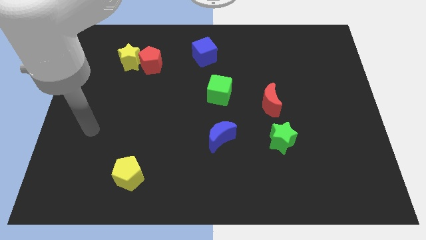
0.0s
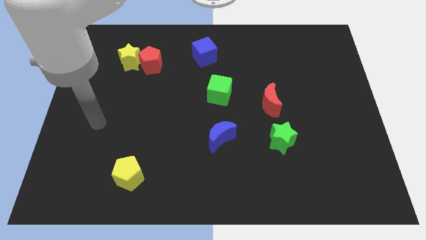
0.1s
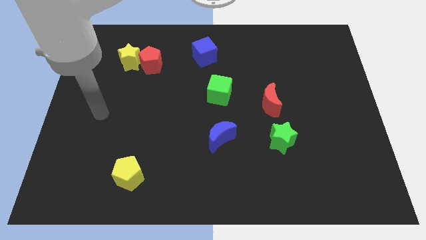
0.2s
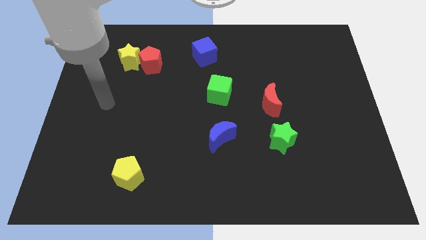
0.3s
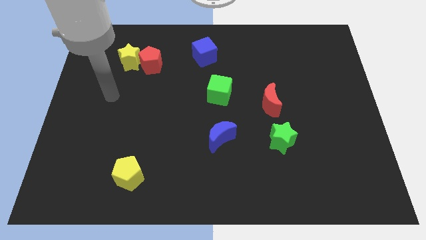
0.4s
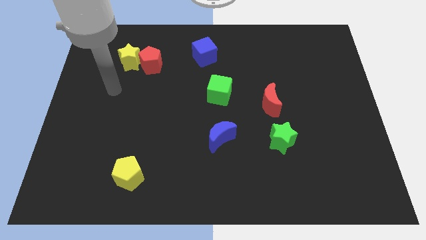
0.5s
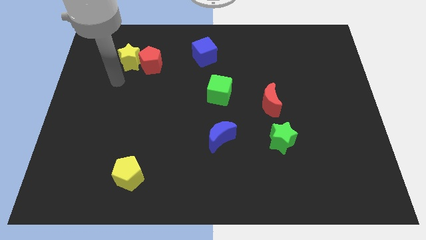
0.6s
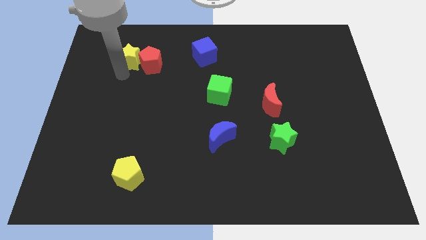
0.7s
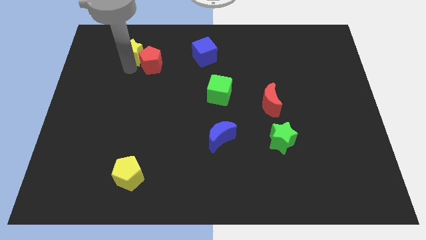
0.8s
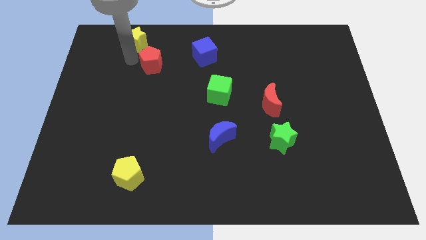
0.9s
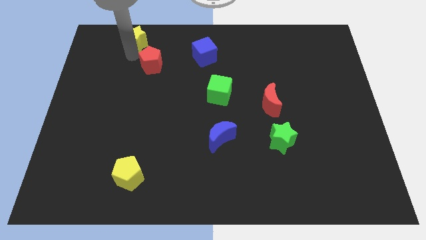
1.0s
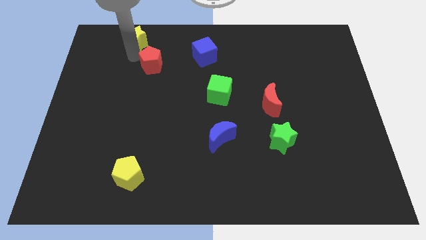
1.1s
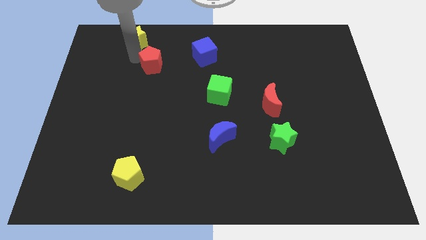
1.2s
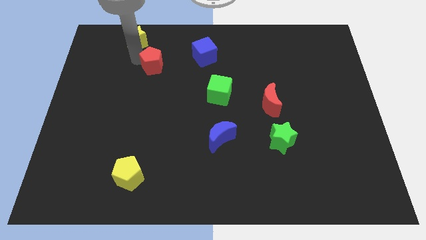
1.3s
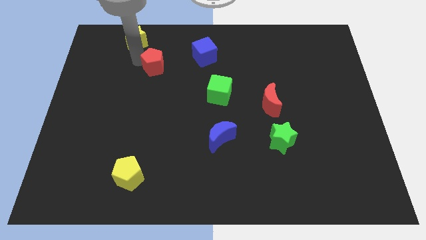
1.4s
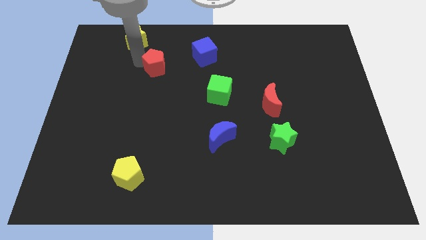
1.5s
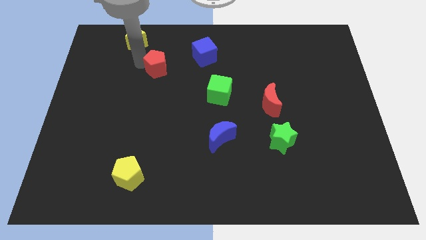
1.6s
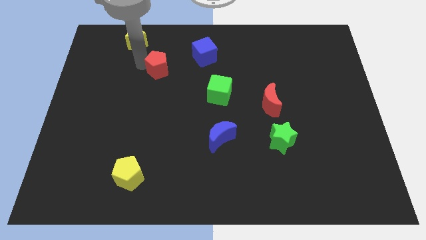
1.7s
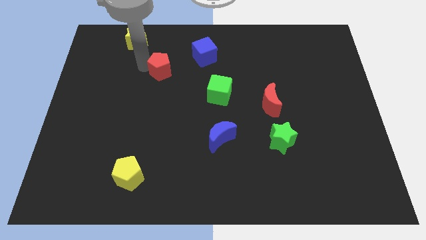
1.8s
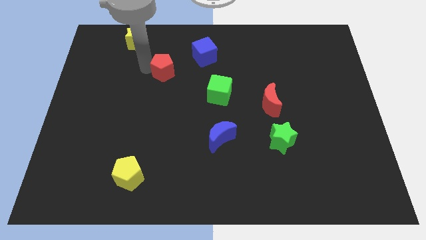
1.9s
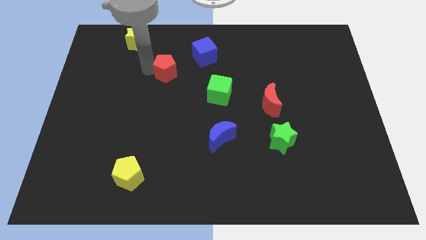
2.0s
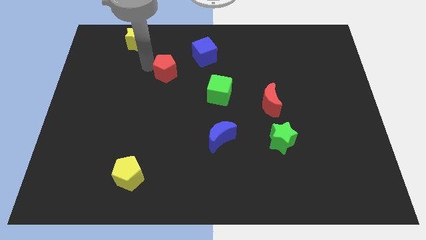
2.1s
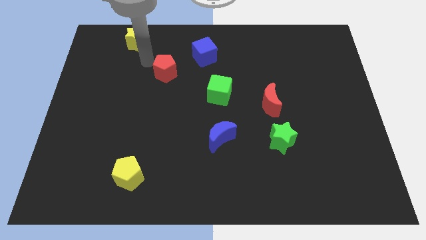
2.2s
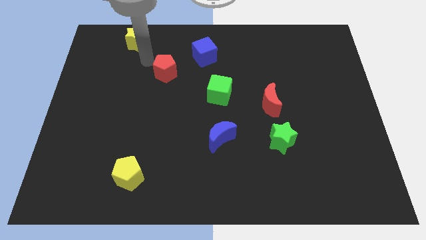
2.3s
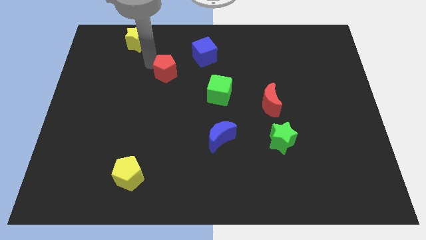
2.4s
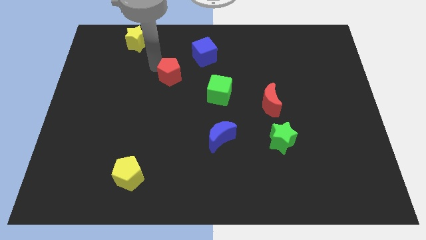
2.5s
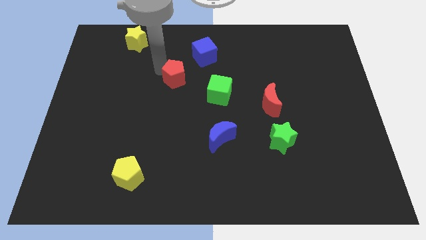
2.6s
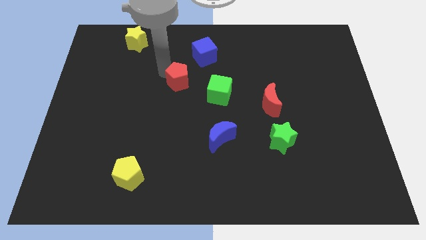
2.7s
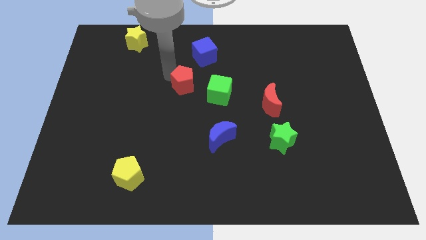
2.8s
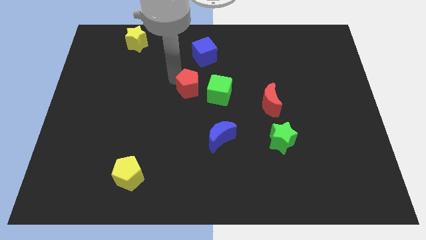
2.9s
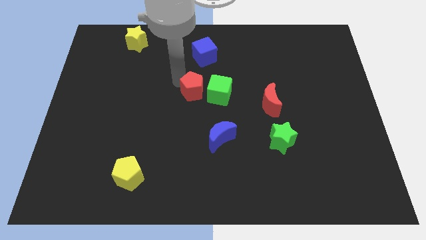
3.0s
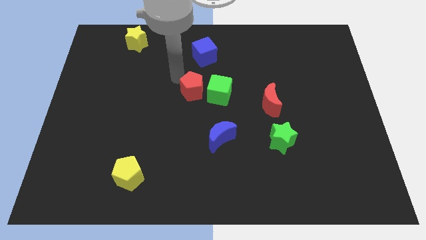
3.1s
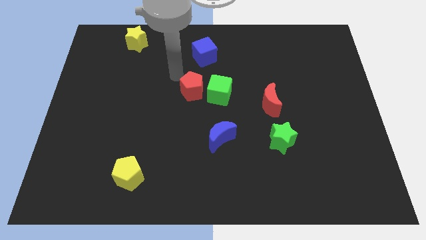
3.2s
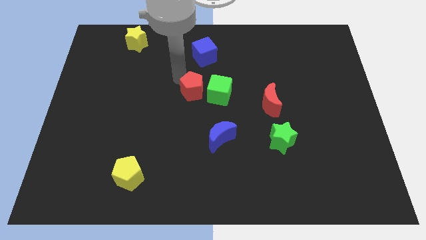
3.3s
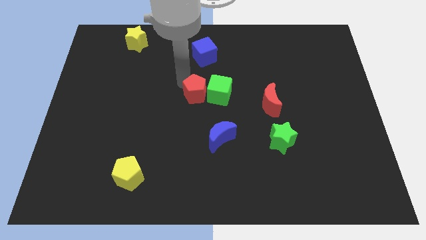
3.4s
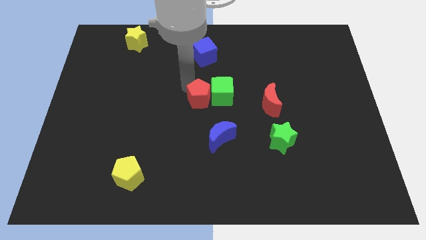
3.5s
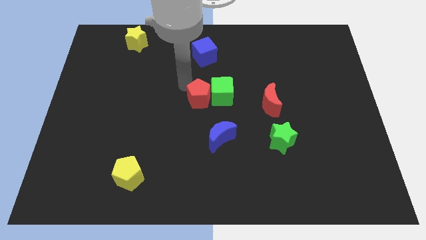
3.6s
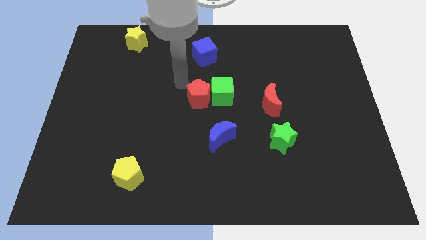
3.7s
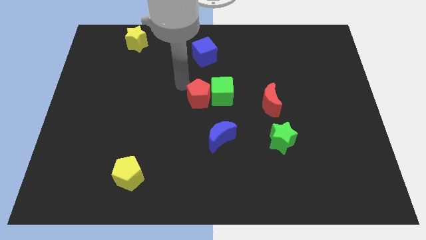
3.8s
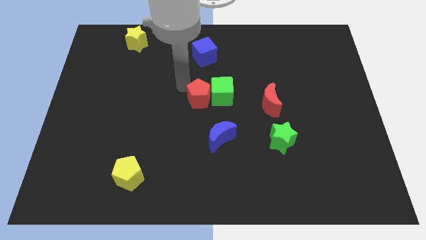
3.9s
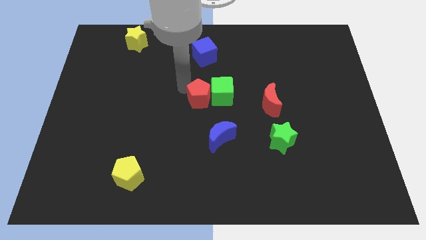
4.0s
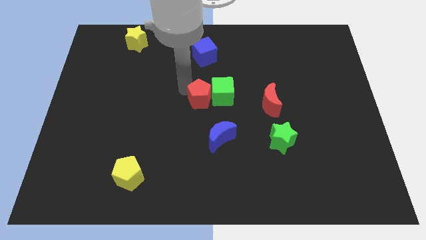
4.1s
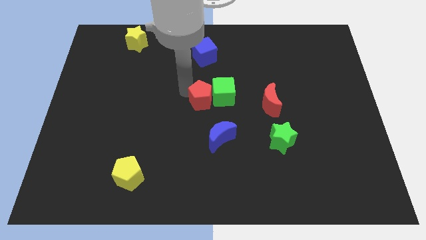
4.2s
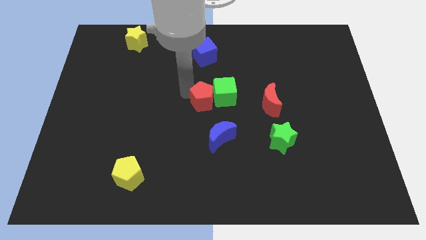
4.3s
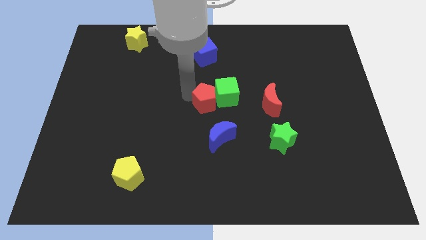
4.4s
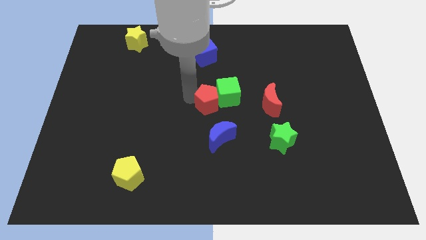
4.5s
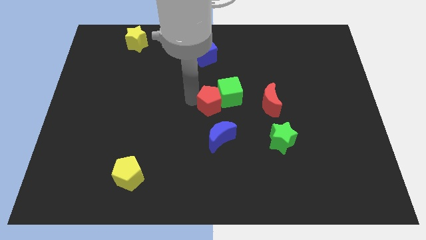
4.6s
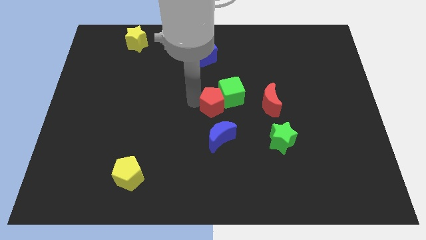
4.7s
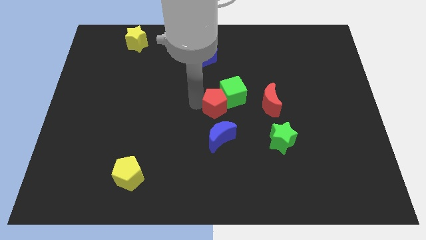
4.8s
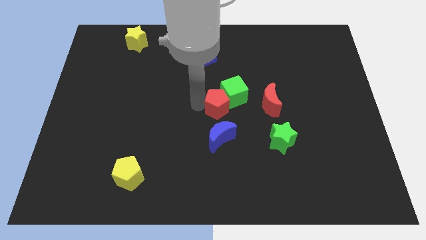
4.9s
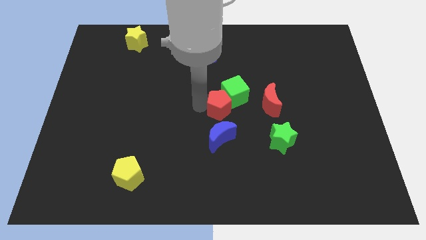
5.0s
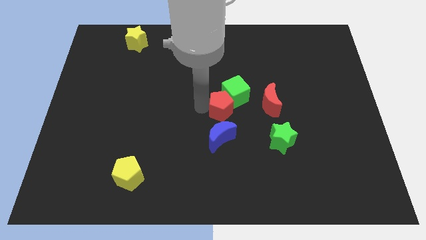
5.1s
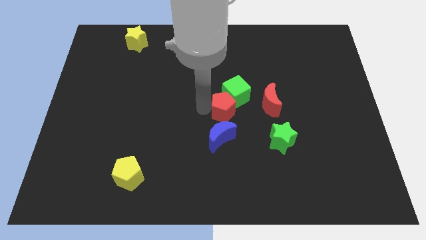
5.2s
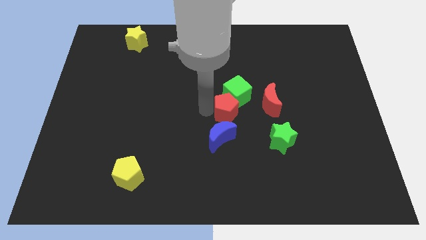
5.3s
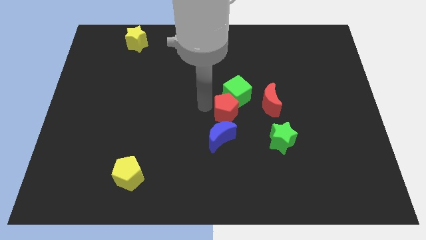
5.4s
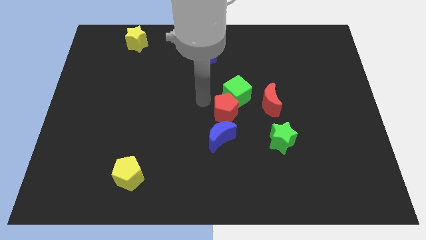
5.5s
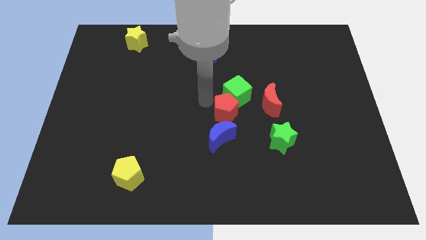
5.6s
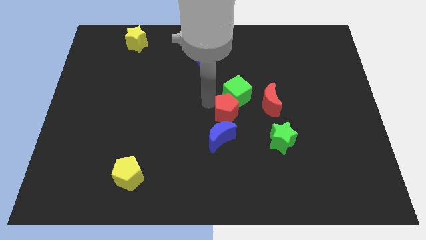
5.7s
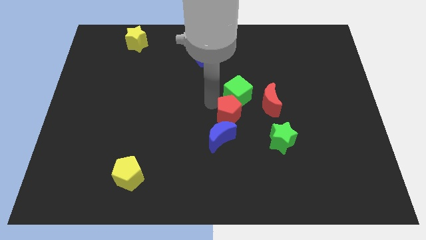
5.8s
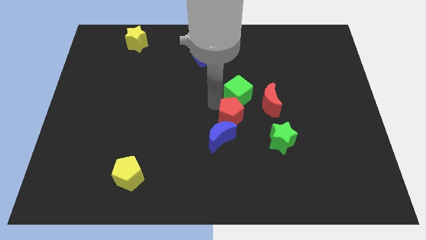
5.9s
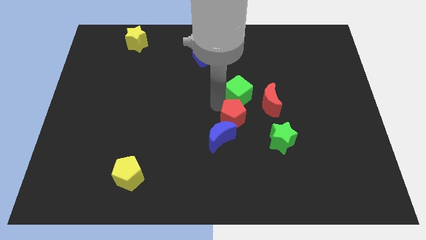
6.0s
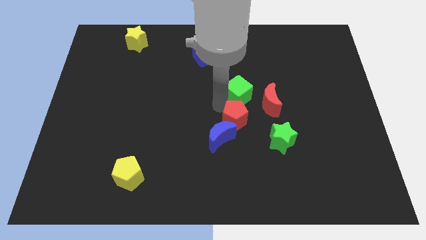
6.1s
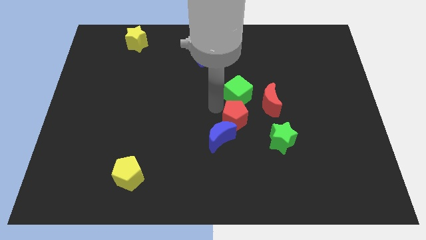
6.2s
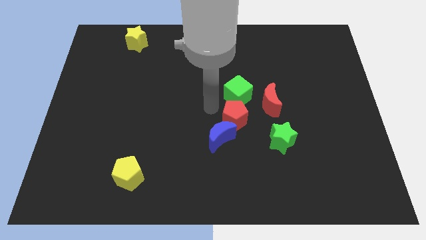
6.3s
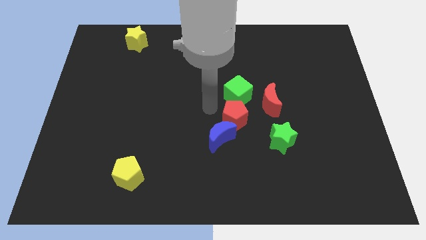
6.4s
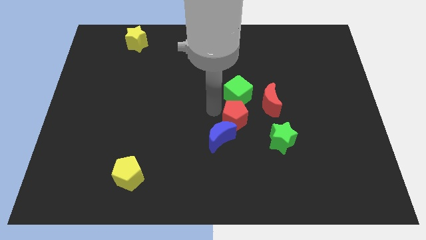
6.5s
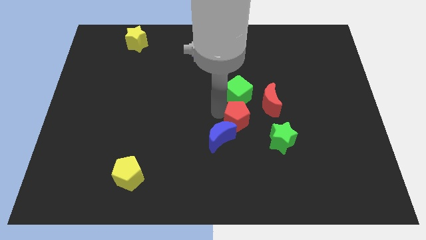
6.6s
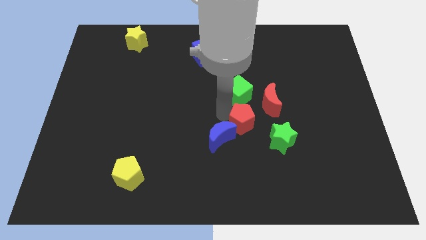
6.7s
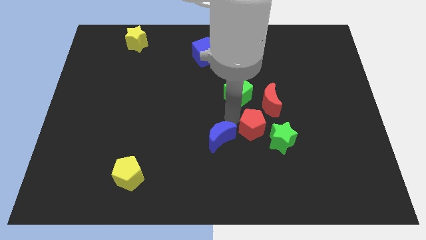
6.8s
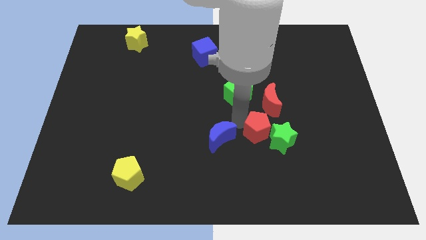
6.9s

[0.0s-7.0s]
slide the red pentagon next to the green star

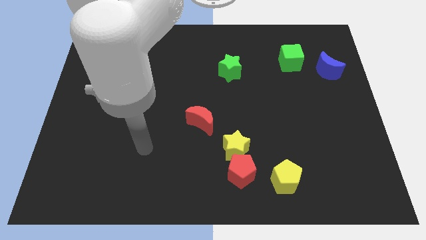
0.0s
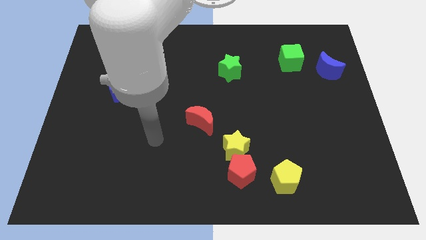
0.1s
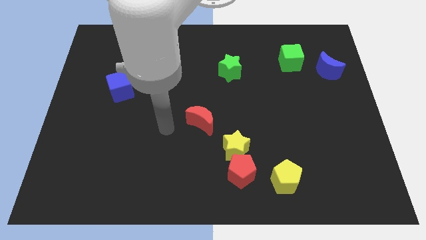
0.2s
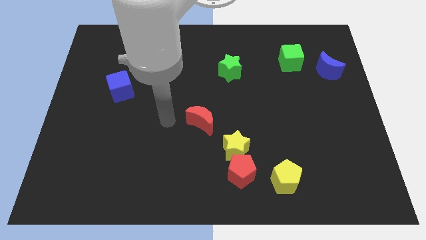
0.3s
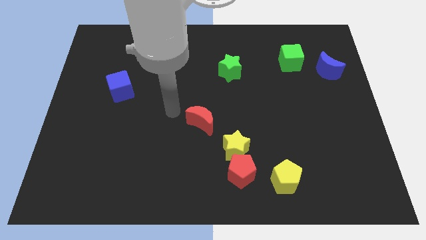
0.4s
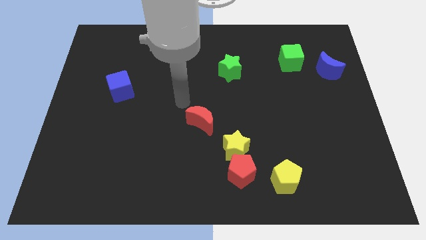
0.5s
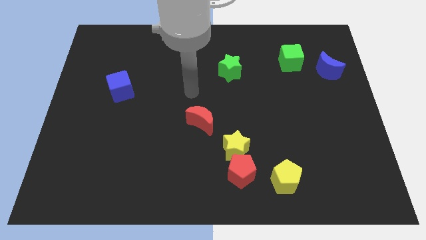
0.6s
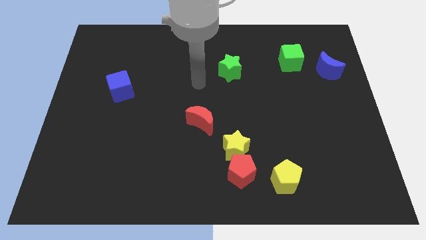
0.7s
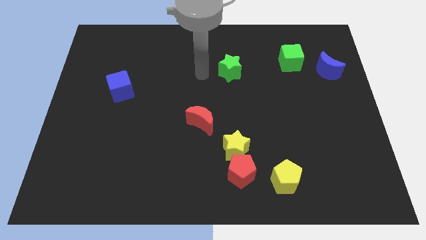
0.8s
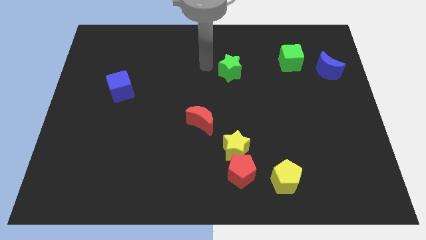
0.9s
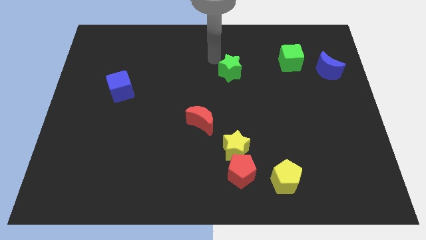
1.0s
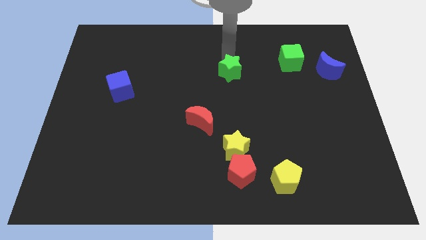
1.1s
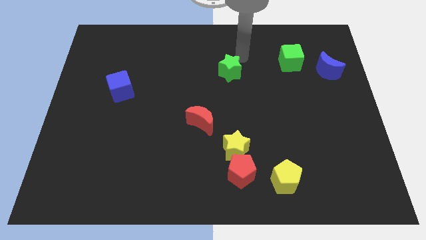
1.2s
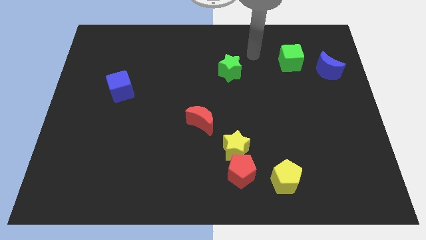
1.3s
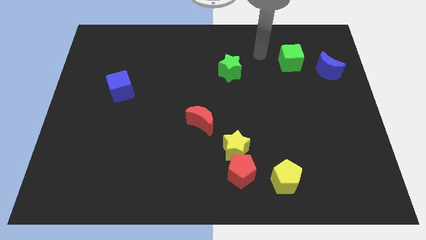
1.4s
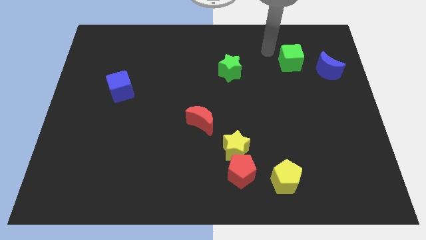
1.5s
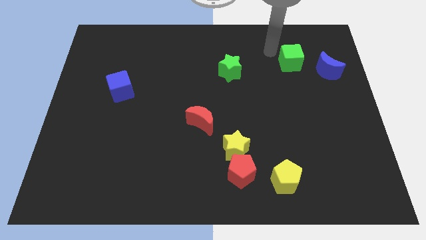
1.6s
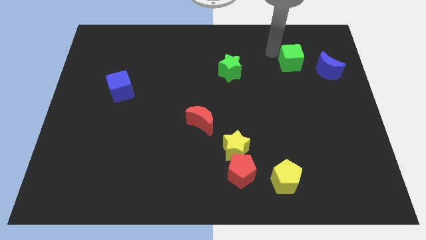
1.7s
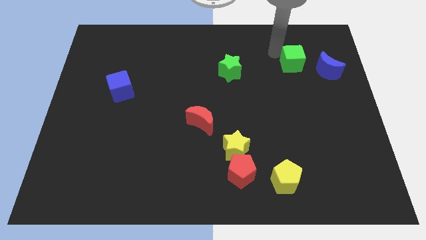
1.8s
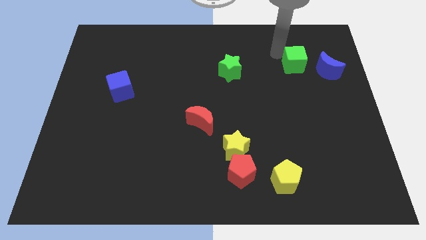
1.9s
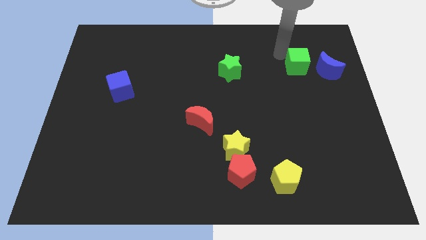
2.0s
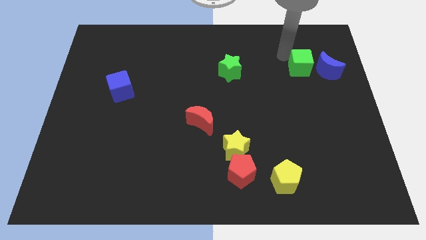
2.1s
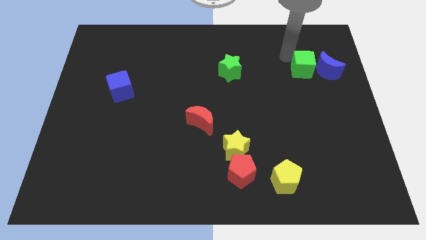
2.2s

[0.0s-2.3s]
push the green cube towards the blue moon
